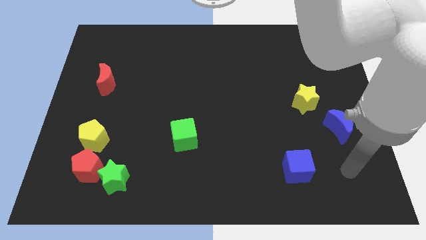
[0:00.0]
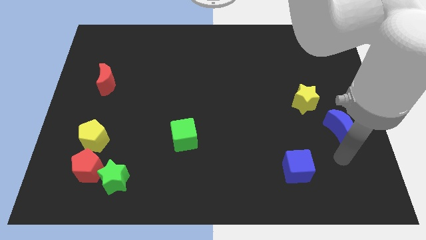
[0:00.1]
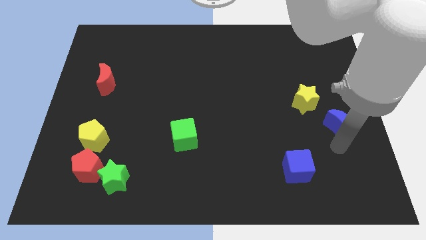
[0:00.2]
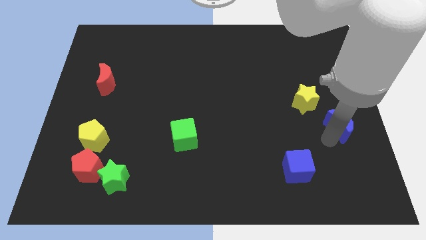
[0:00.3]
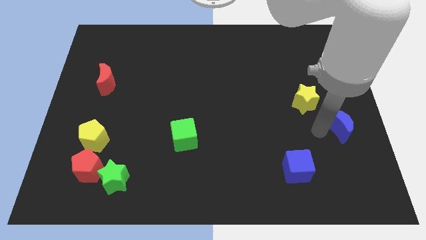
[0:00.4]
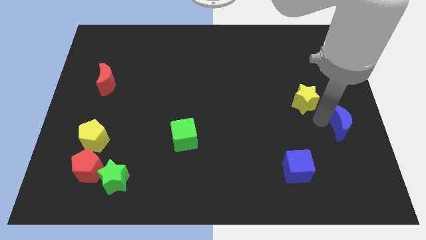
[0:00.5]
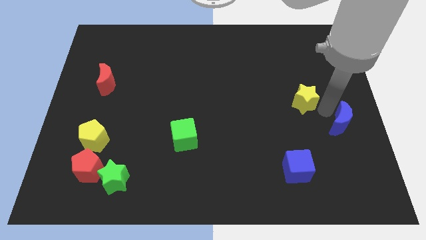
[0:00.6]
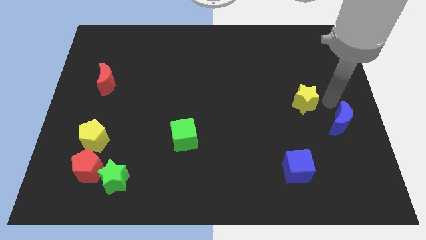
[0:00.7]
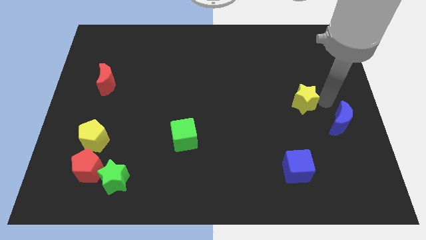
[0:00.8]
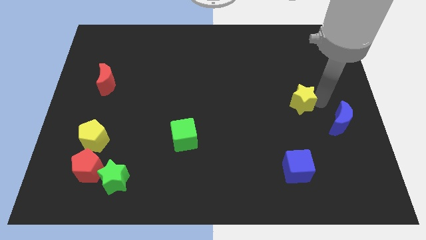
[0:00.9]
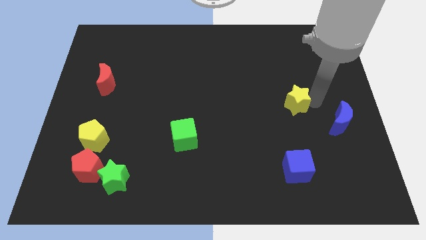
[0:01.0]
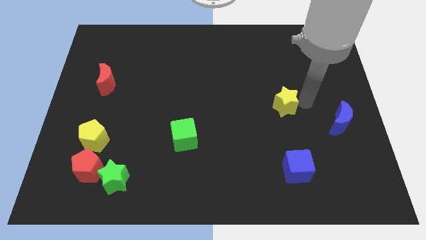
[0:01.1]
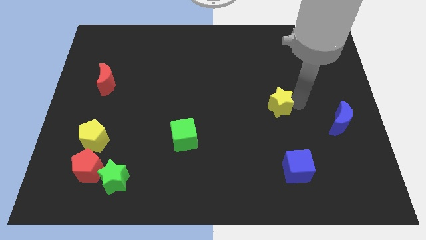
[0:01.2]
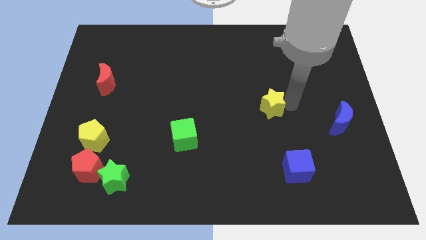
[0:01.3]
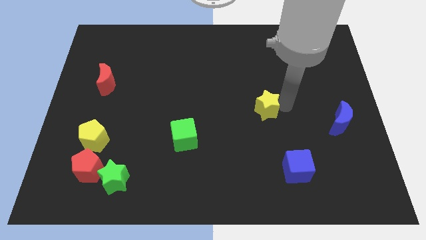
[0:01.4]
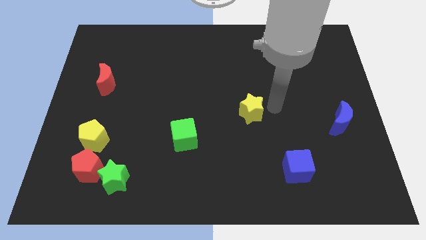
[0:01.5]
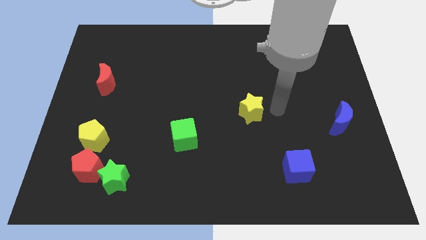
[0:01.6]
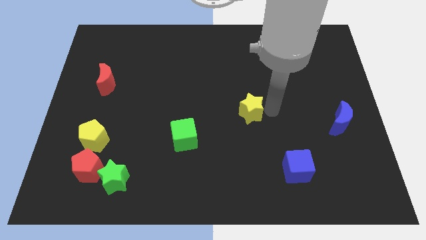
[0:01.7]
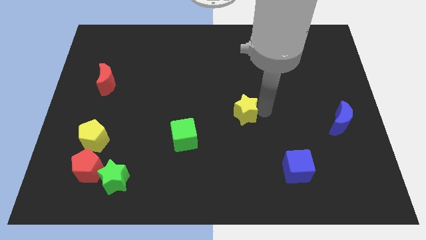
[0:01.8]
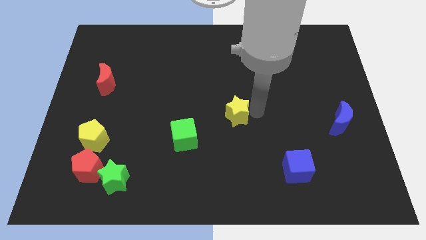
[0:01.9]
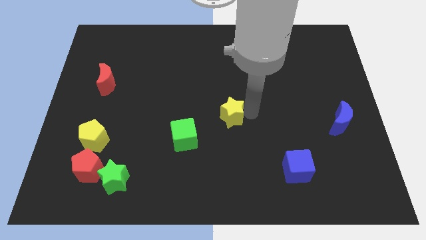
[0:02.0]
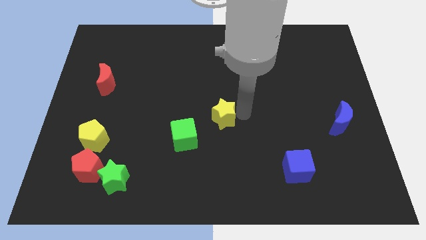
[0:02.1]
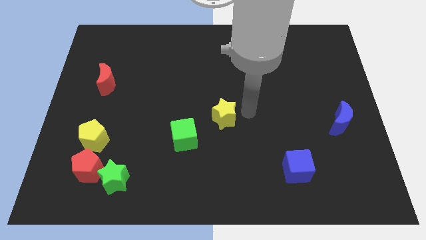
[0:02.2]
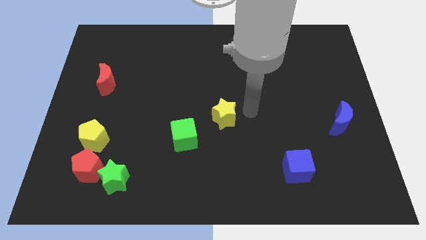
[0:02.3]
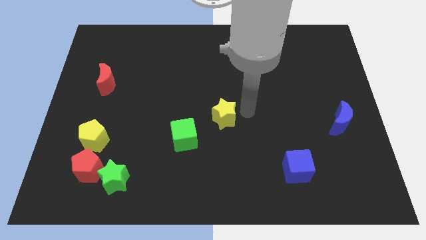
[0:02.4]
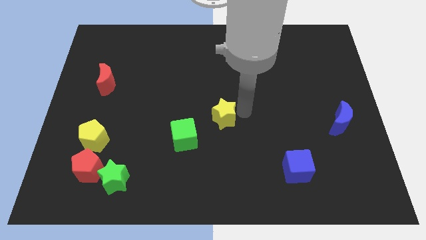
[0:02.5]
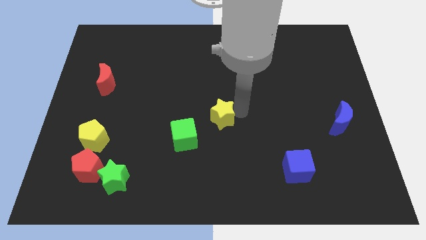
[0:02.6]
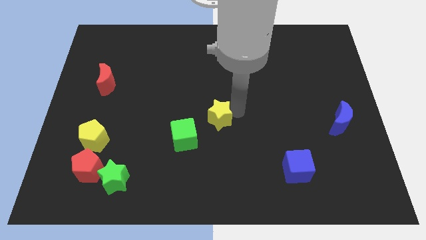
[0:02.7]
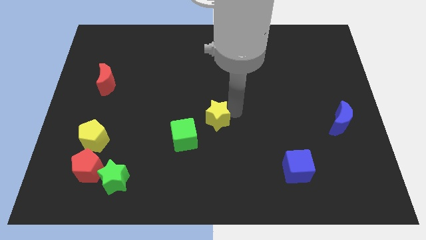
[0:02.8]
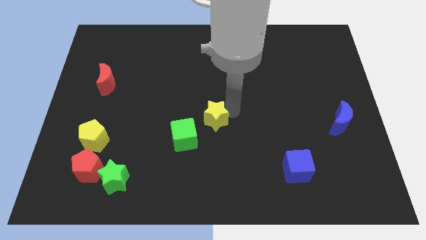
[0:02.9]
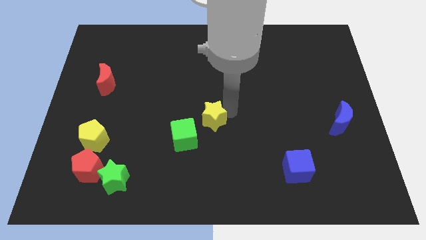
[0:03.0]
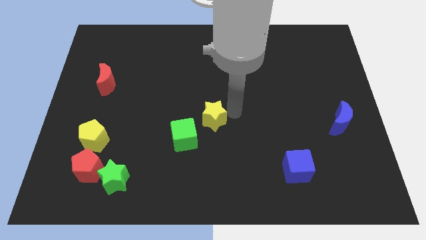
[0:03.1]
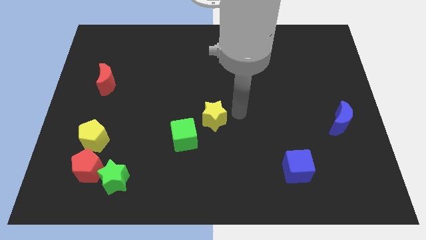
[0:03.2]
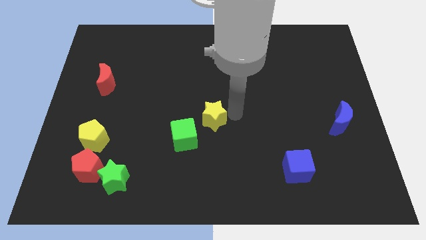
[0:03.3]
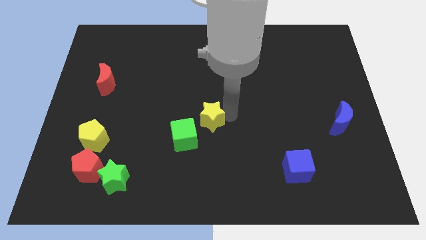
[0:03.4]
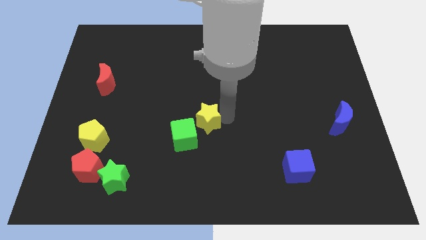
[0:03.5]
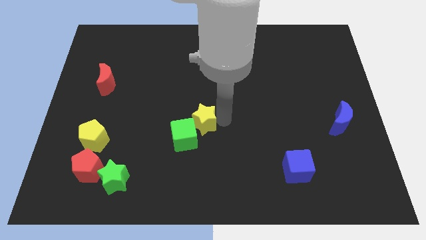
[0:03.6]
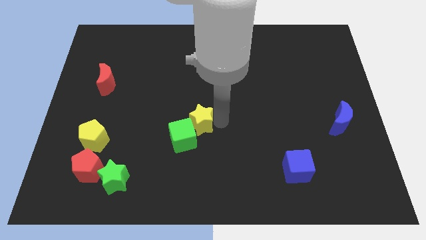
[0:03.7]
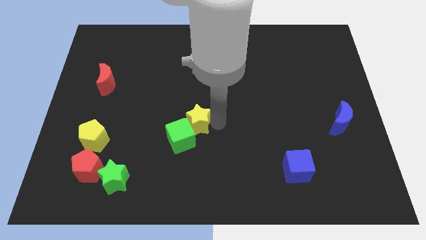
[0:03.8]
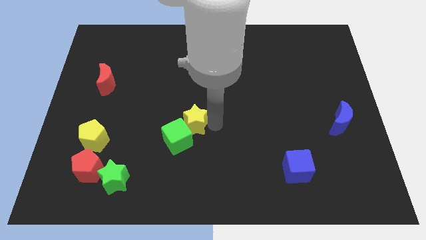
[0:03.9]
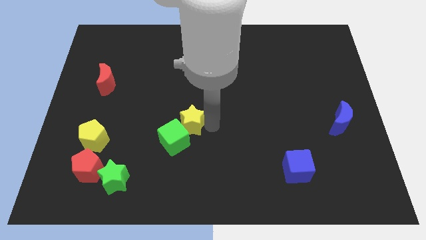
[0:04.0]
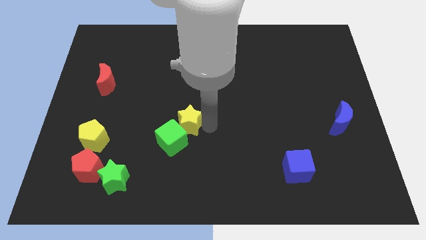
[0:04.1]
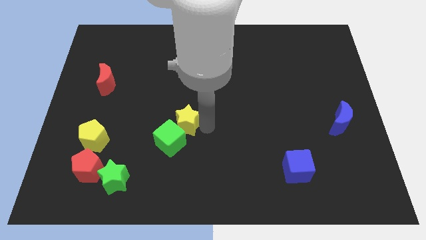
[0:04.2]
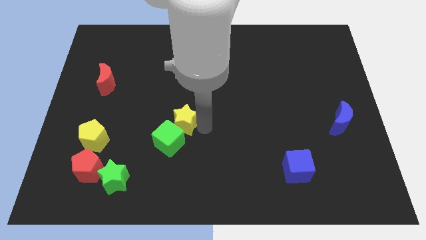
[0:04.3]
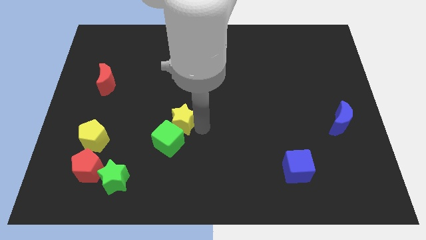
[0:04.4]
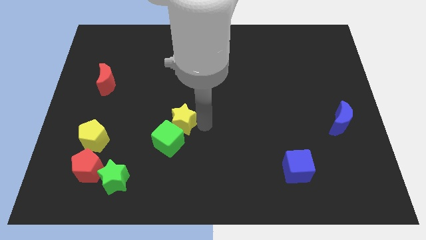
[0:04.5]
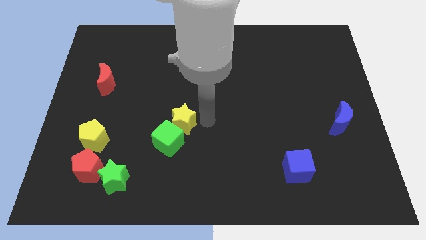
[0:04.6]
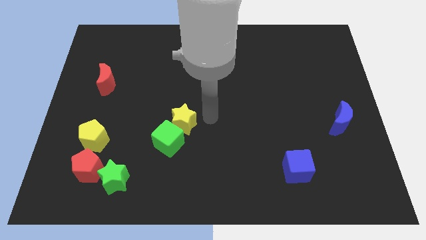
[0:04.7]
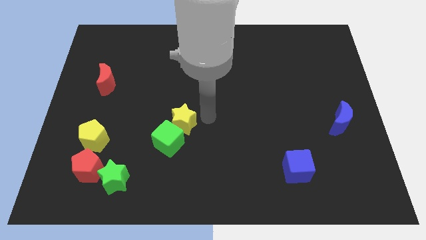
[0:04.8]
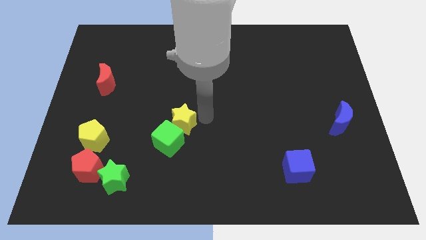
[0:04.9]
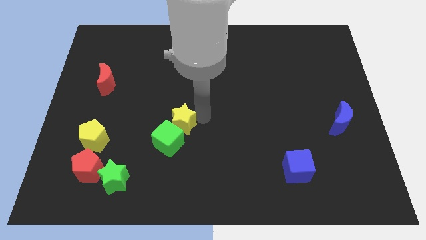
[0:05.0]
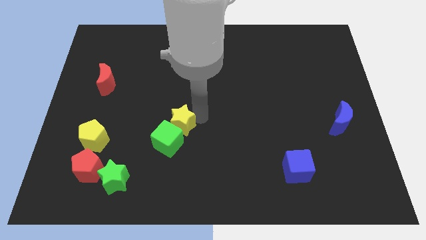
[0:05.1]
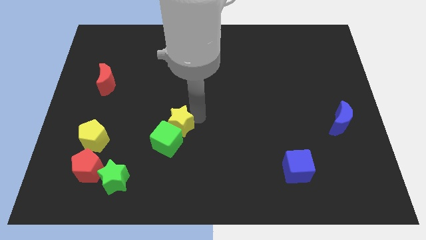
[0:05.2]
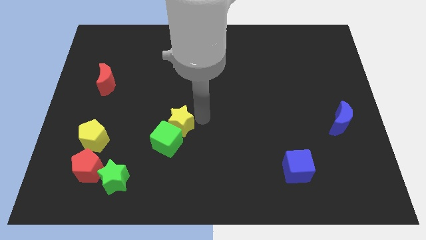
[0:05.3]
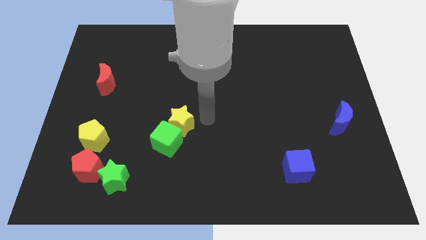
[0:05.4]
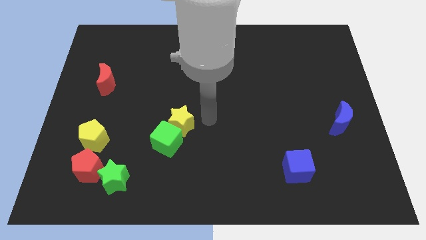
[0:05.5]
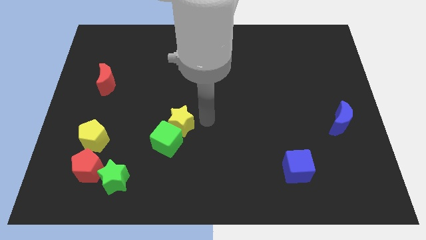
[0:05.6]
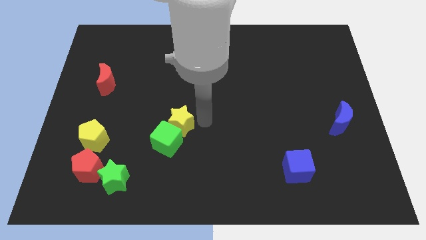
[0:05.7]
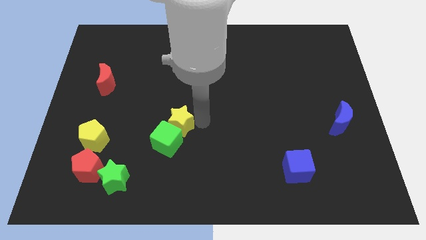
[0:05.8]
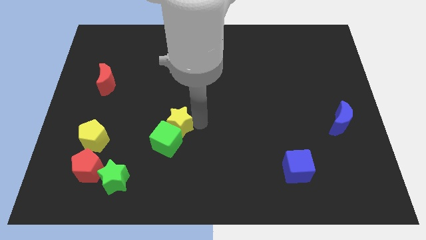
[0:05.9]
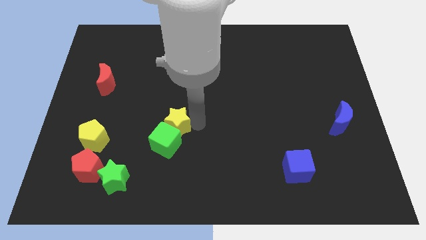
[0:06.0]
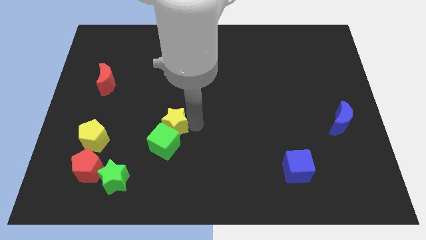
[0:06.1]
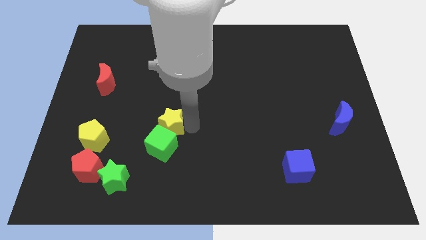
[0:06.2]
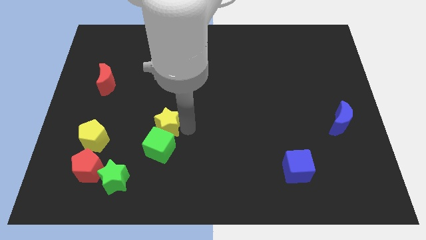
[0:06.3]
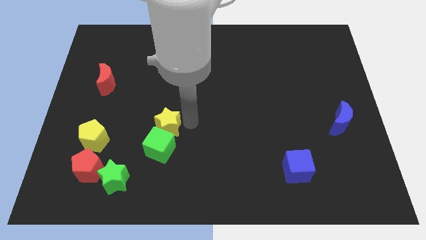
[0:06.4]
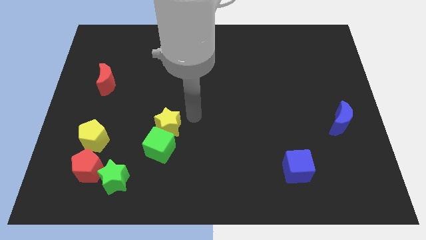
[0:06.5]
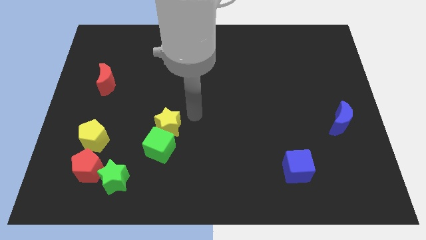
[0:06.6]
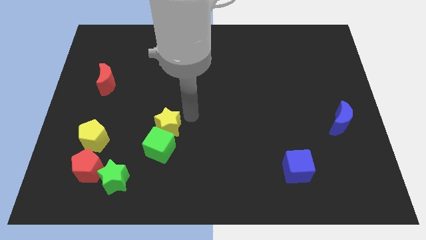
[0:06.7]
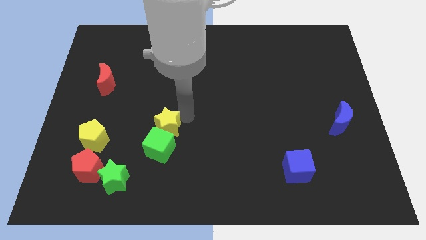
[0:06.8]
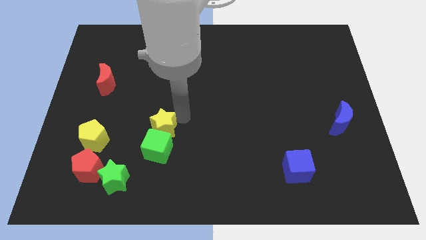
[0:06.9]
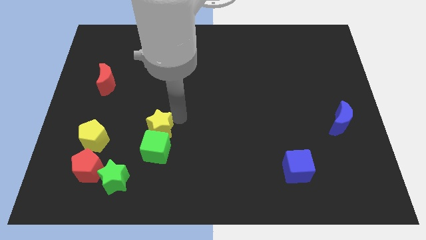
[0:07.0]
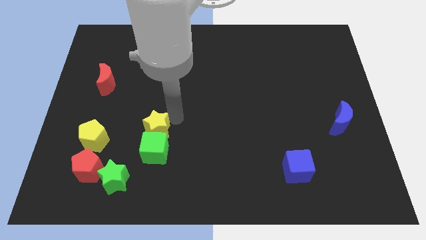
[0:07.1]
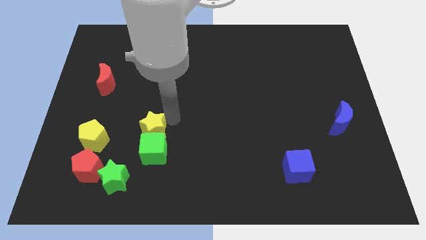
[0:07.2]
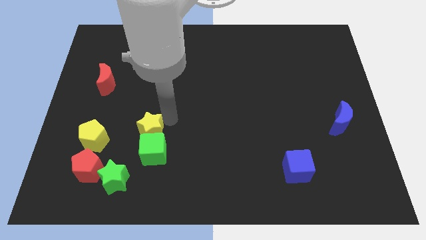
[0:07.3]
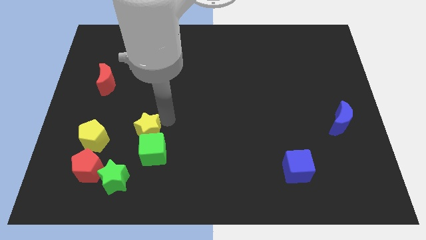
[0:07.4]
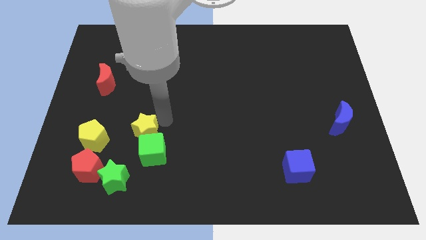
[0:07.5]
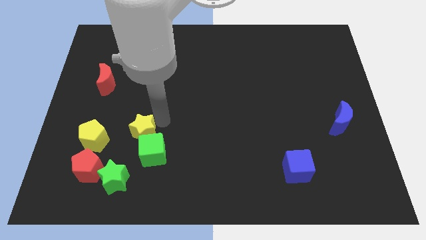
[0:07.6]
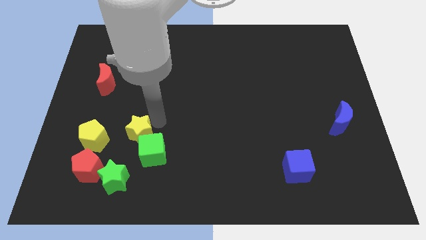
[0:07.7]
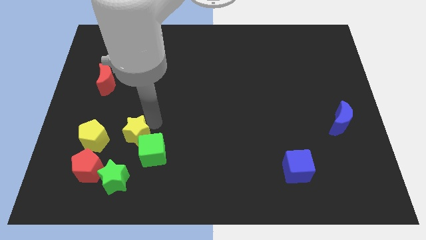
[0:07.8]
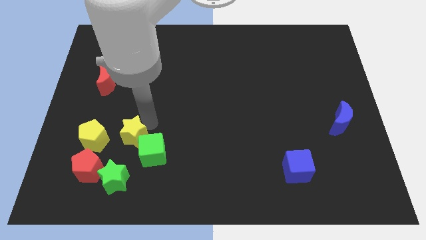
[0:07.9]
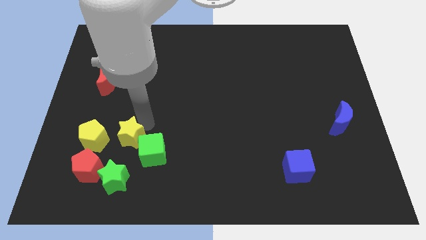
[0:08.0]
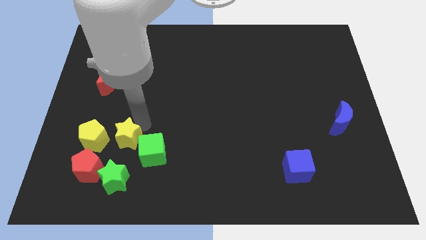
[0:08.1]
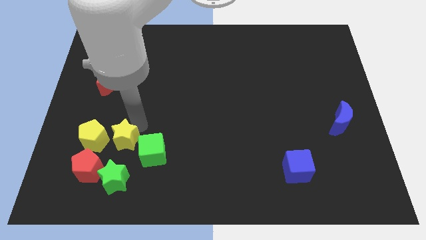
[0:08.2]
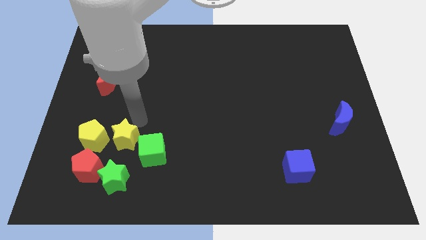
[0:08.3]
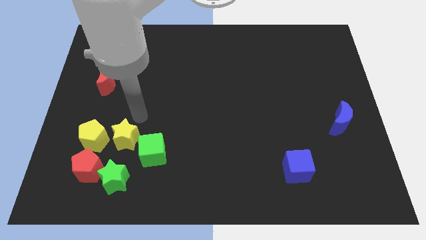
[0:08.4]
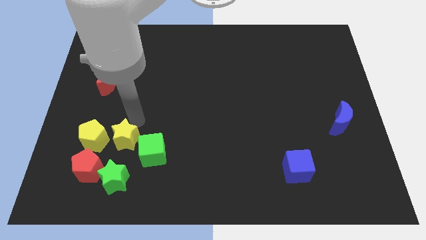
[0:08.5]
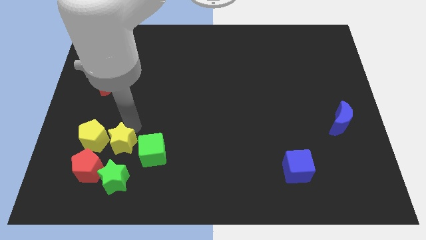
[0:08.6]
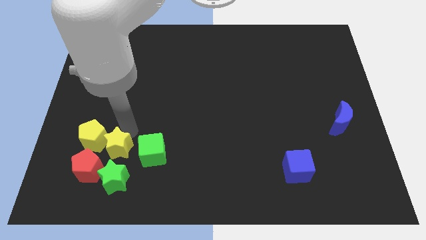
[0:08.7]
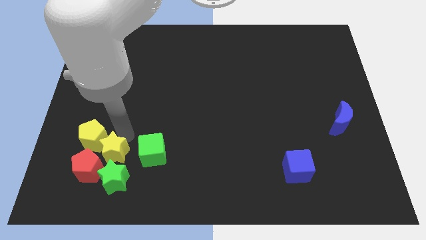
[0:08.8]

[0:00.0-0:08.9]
move the yellow star towards the red pentagon
